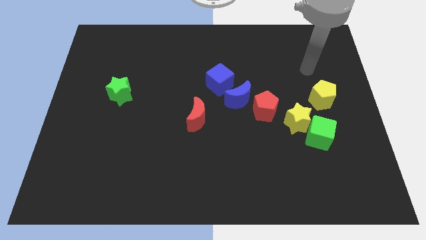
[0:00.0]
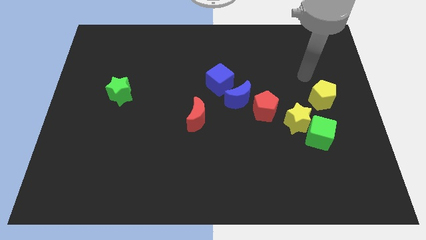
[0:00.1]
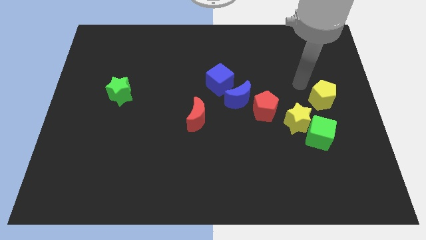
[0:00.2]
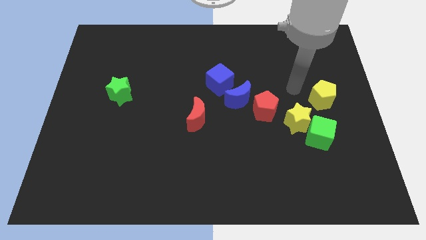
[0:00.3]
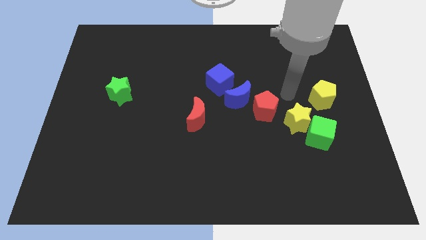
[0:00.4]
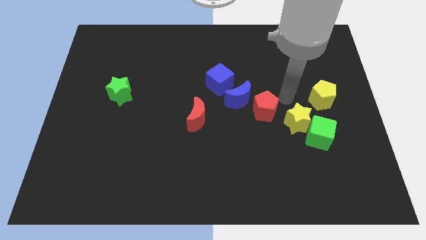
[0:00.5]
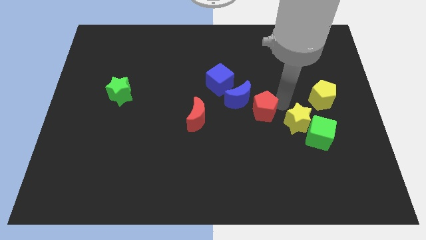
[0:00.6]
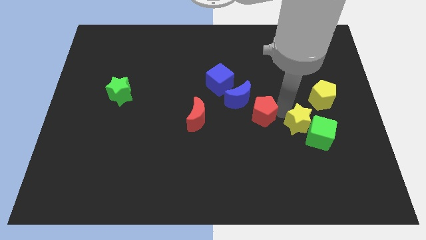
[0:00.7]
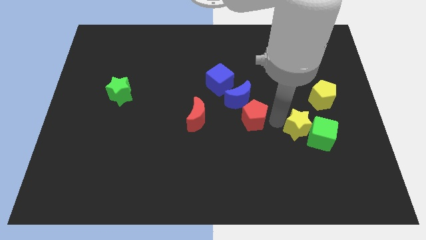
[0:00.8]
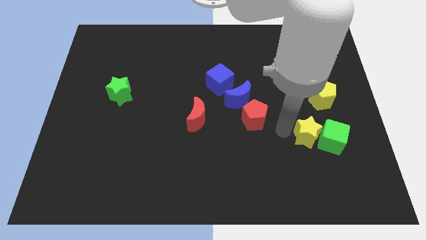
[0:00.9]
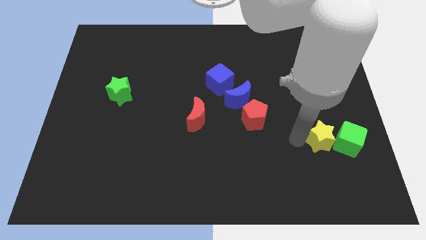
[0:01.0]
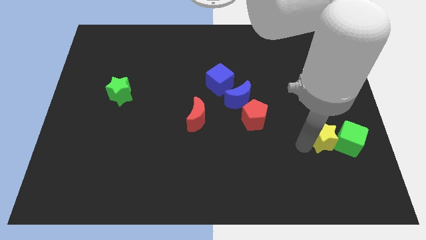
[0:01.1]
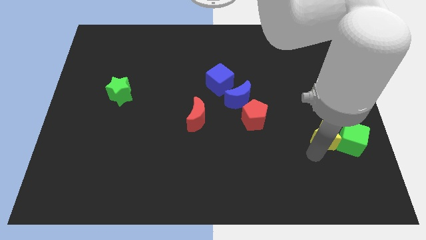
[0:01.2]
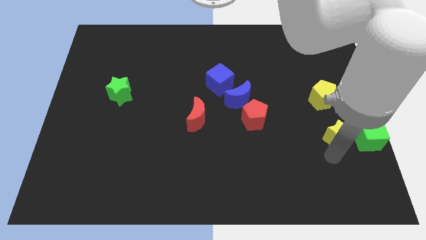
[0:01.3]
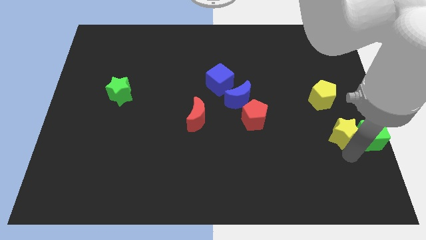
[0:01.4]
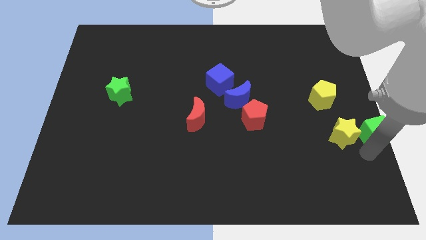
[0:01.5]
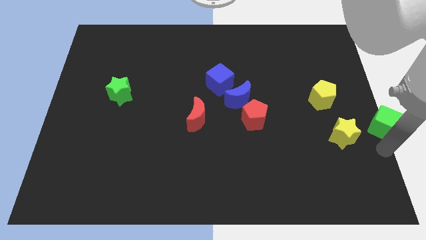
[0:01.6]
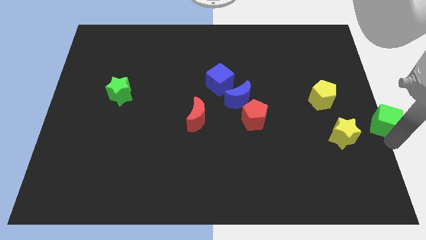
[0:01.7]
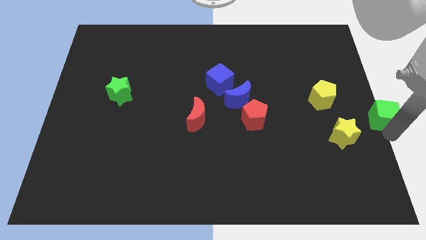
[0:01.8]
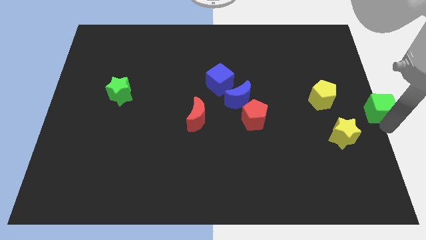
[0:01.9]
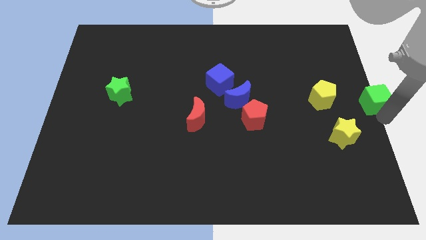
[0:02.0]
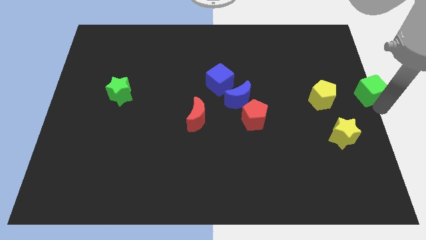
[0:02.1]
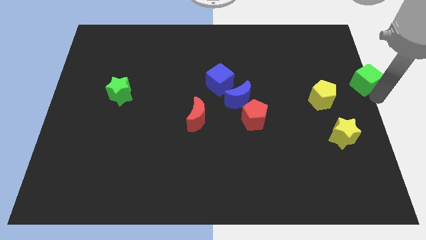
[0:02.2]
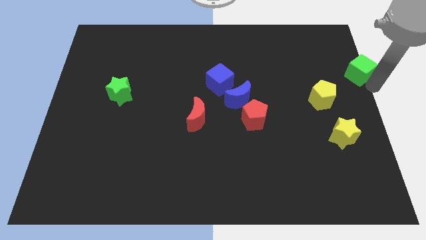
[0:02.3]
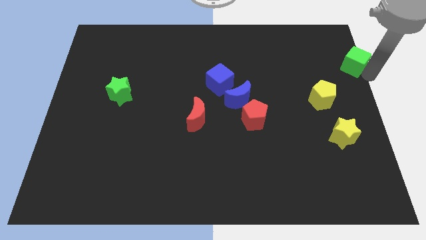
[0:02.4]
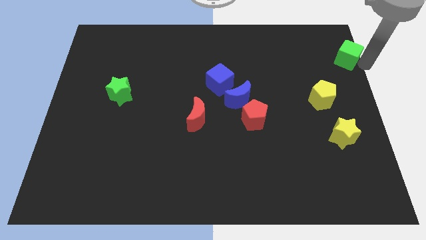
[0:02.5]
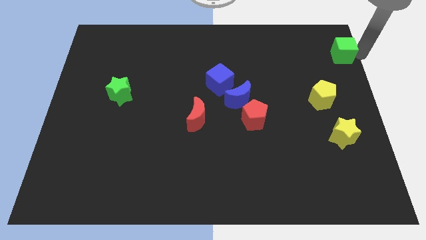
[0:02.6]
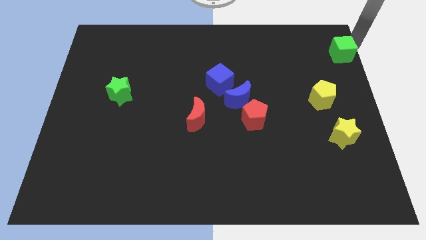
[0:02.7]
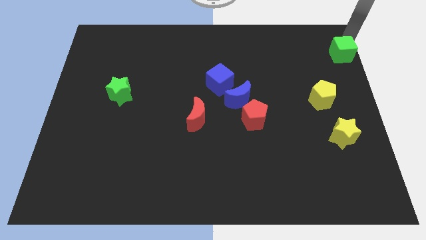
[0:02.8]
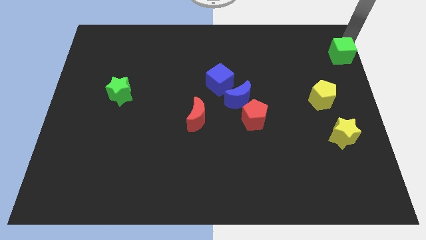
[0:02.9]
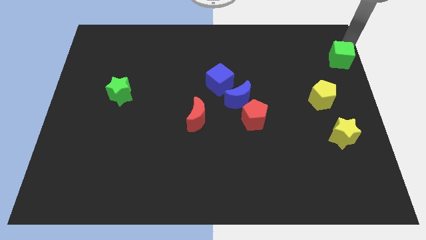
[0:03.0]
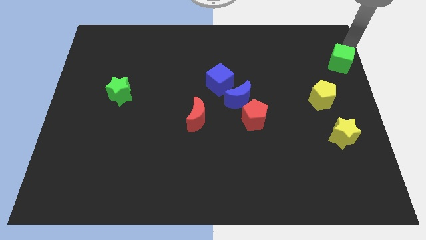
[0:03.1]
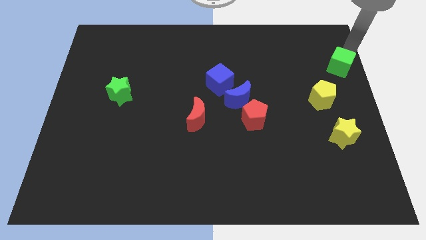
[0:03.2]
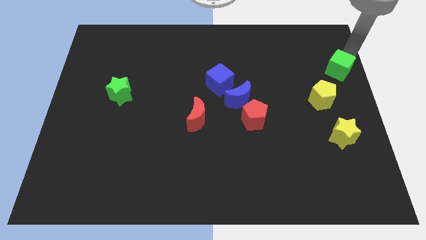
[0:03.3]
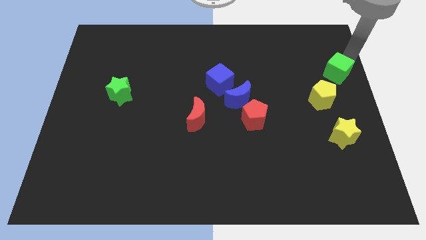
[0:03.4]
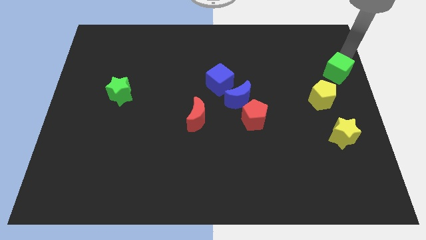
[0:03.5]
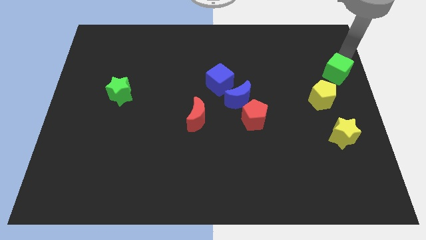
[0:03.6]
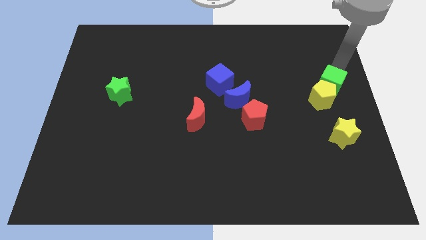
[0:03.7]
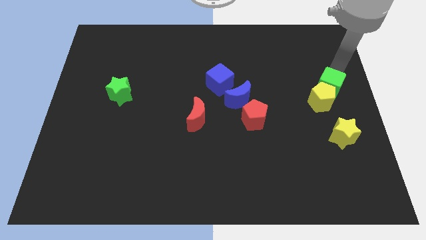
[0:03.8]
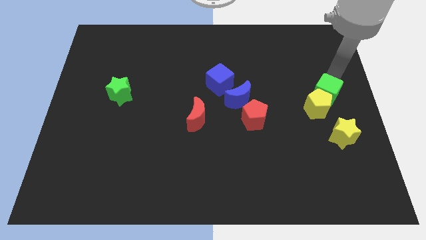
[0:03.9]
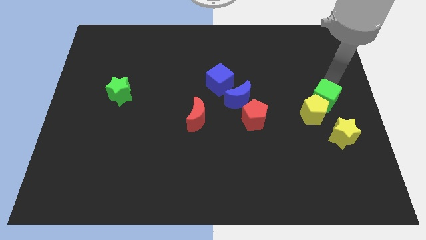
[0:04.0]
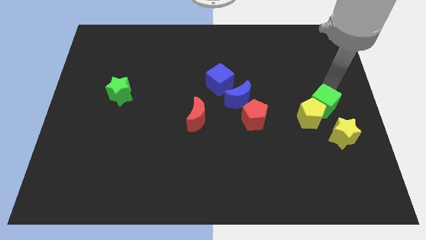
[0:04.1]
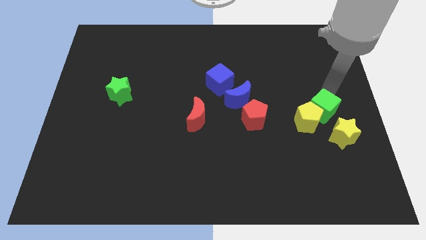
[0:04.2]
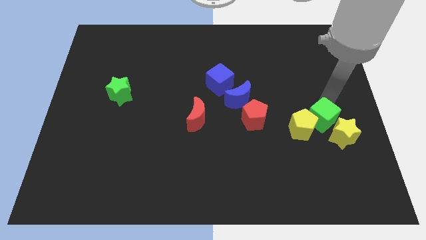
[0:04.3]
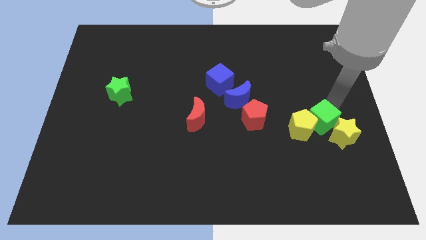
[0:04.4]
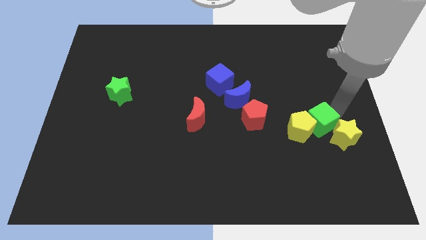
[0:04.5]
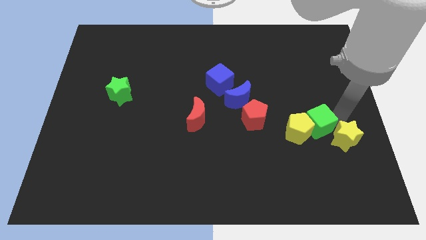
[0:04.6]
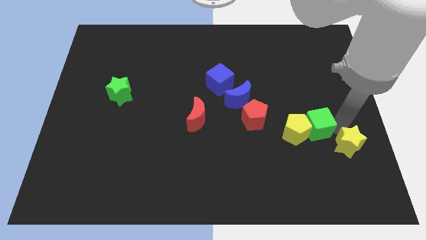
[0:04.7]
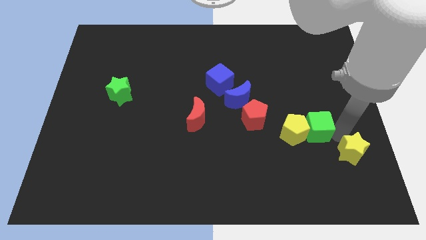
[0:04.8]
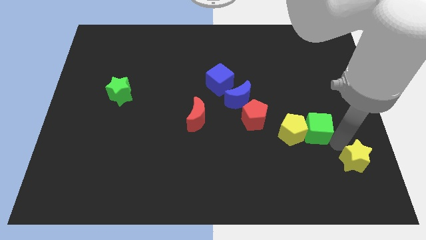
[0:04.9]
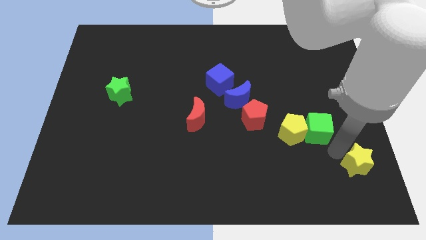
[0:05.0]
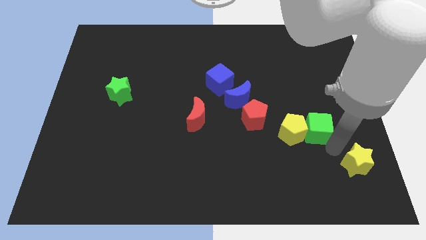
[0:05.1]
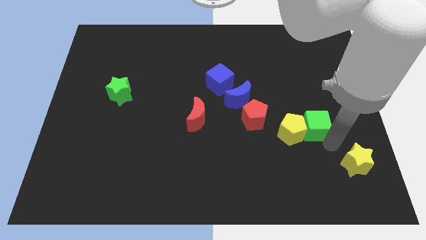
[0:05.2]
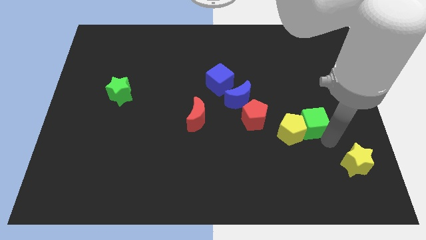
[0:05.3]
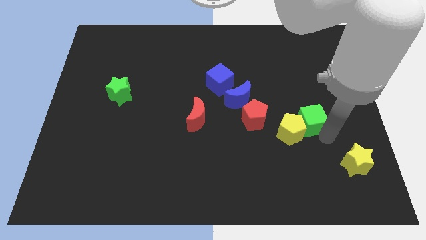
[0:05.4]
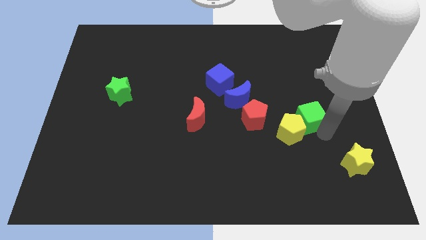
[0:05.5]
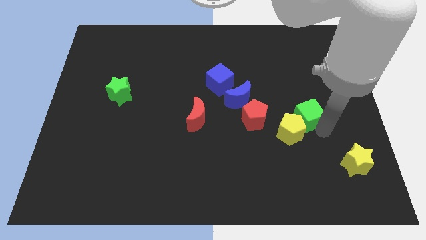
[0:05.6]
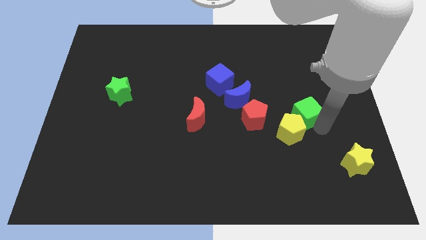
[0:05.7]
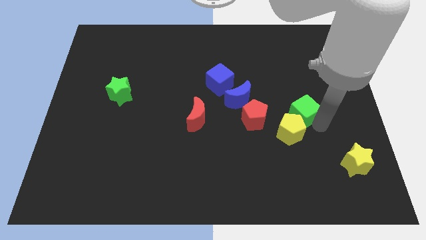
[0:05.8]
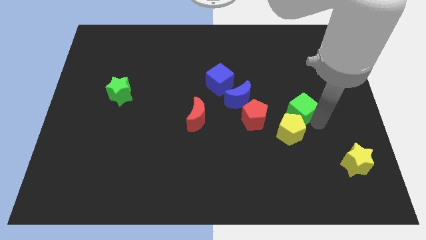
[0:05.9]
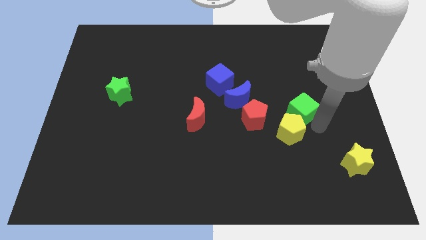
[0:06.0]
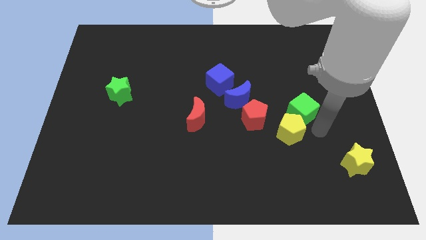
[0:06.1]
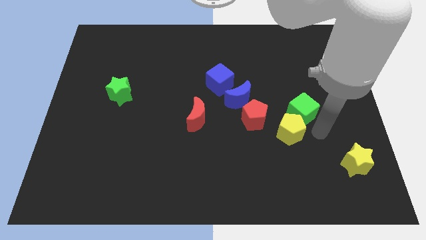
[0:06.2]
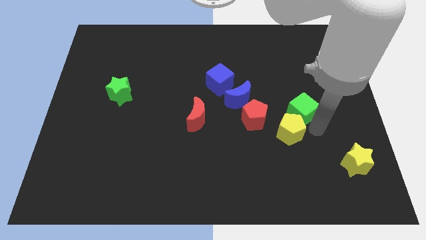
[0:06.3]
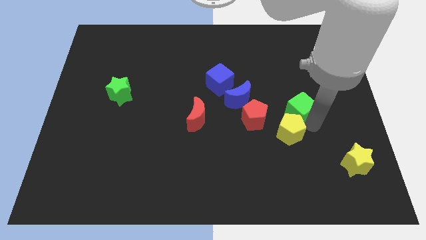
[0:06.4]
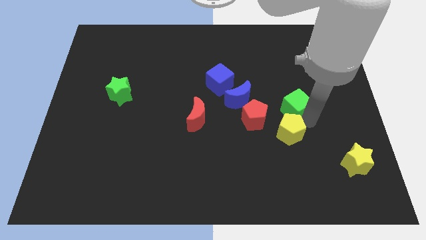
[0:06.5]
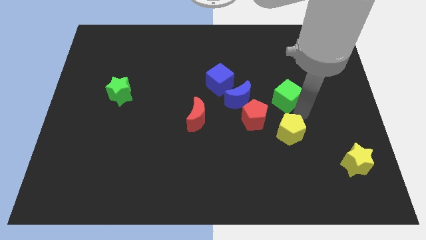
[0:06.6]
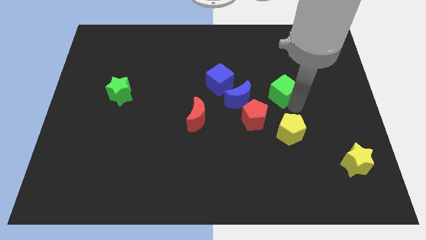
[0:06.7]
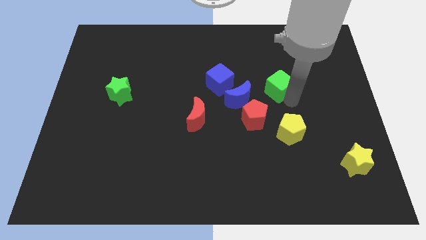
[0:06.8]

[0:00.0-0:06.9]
slide the green cube to the top right of the blue moon
